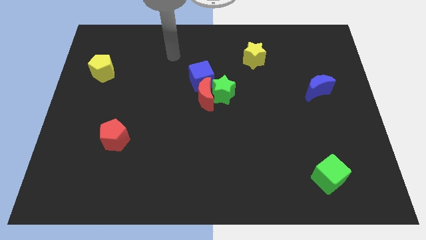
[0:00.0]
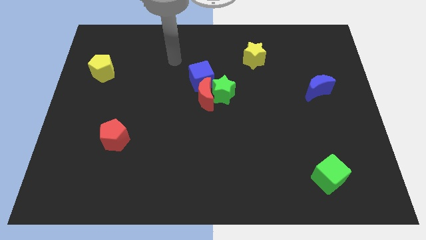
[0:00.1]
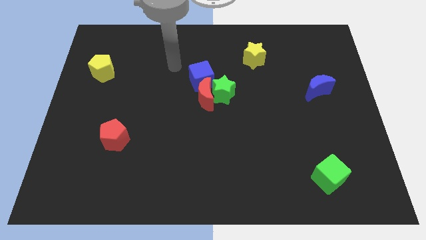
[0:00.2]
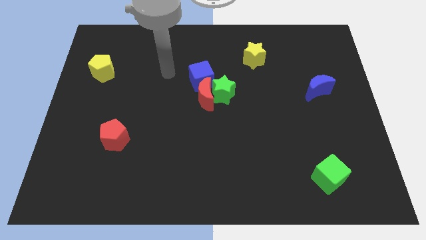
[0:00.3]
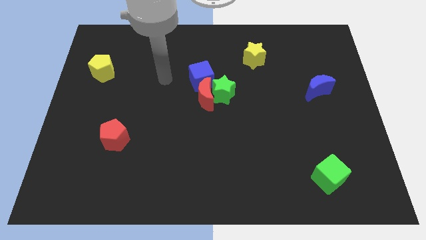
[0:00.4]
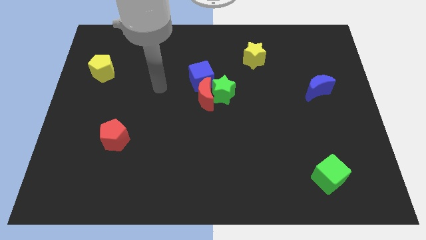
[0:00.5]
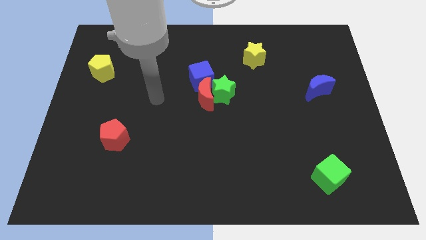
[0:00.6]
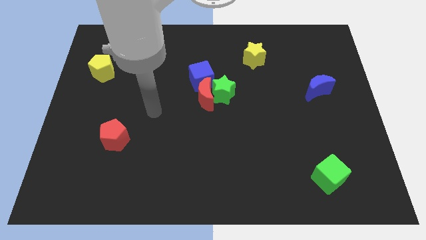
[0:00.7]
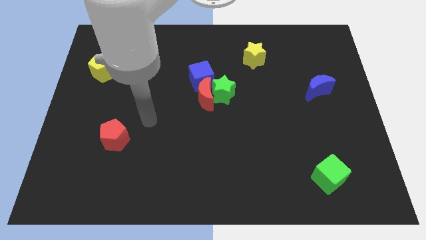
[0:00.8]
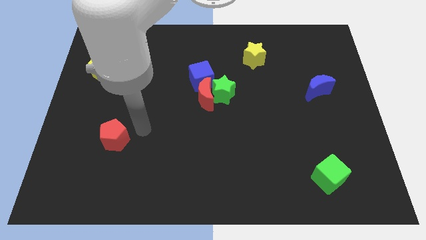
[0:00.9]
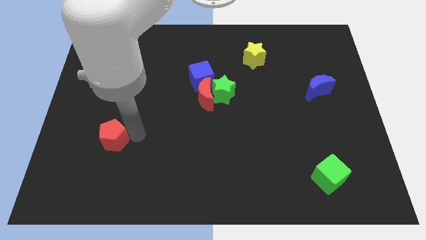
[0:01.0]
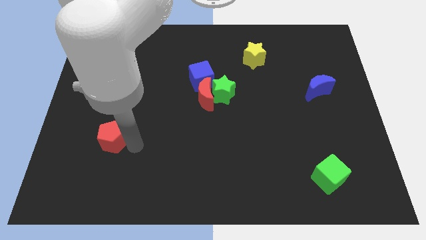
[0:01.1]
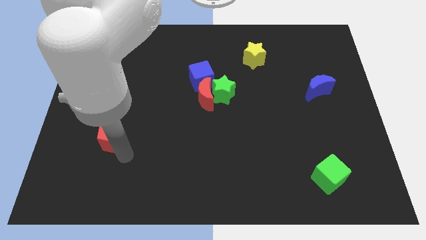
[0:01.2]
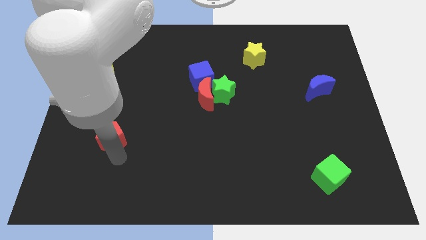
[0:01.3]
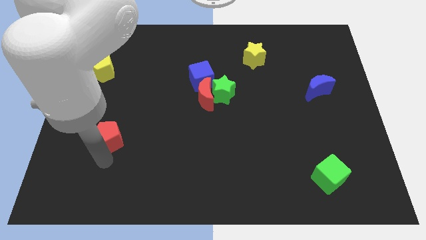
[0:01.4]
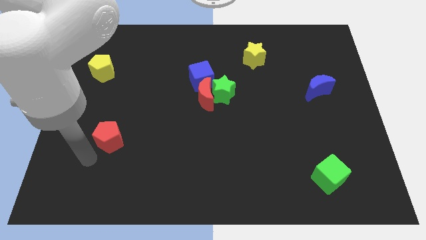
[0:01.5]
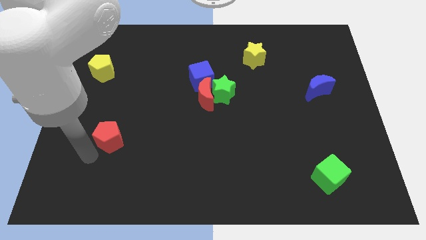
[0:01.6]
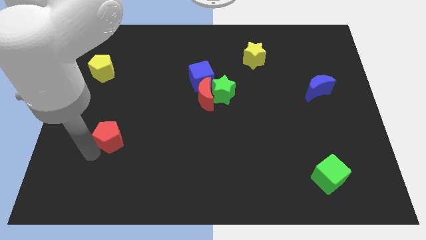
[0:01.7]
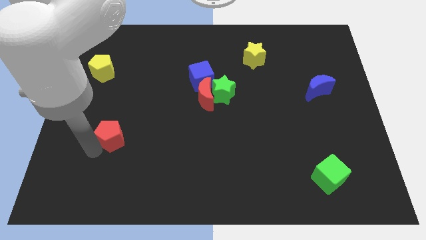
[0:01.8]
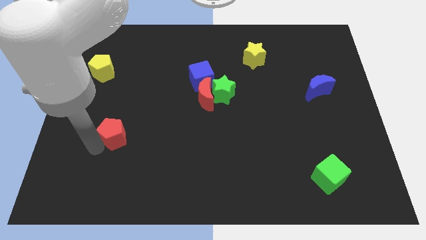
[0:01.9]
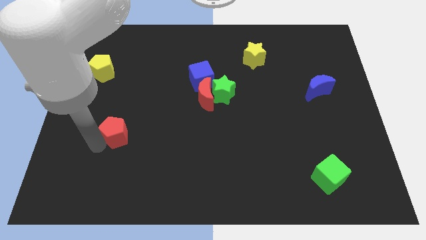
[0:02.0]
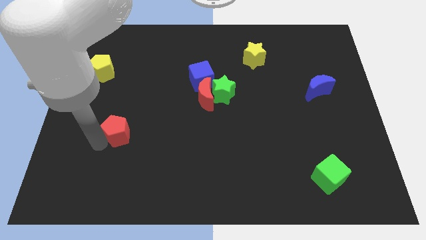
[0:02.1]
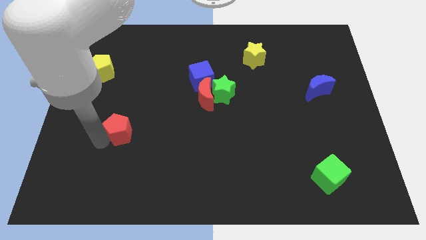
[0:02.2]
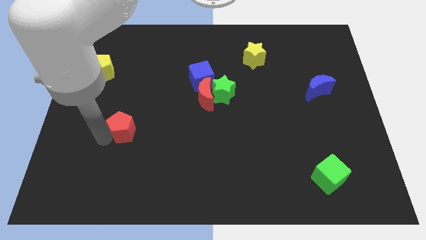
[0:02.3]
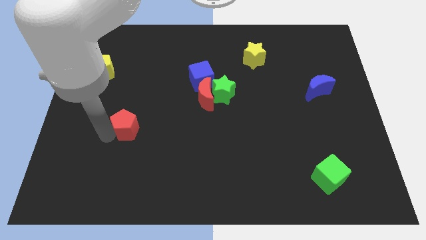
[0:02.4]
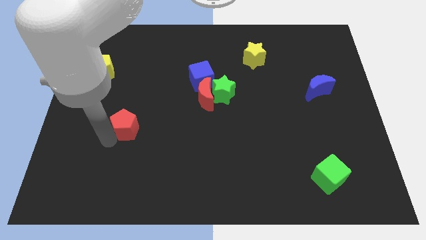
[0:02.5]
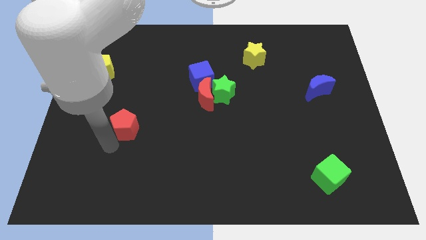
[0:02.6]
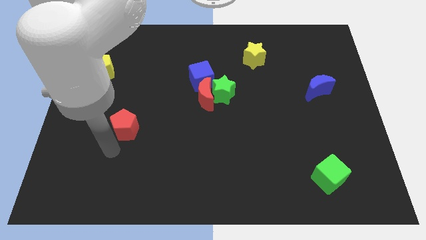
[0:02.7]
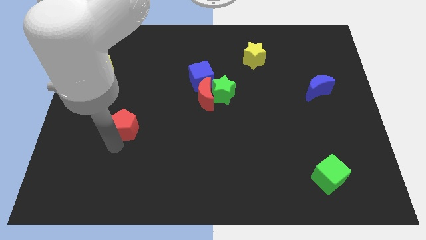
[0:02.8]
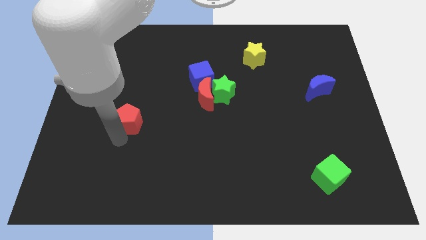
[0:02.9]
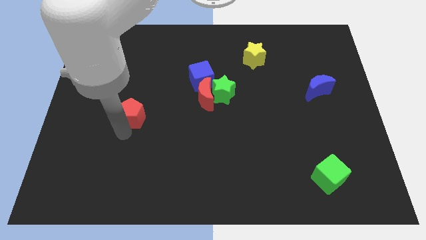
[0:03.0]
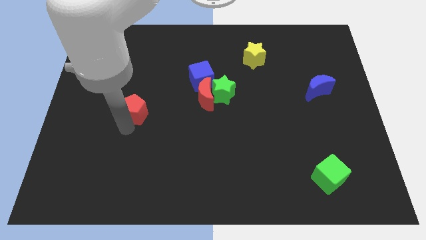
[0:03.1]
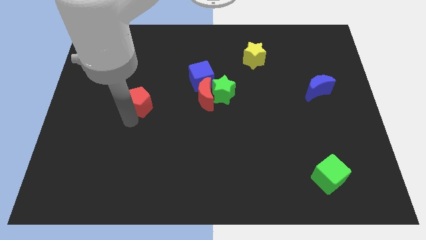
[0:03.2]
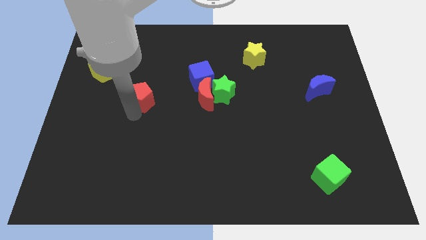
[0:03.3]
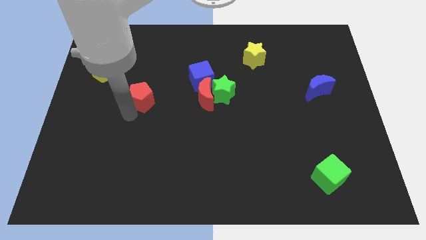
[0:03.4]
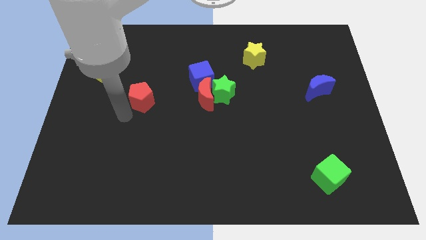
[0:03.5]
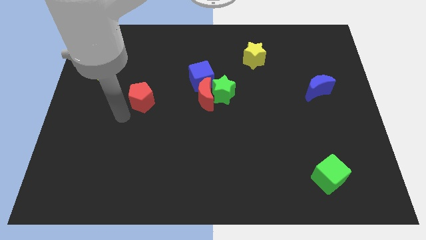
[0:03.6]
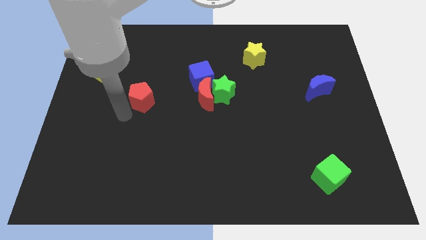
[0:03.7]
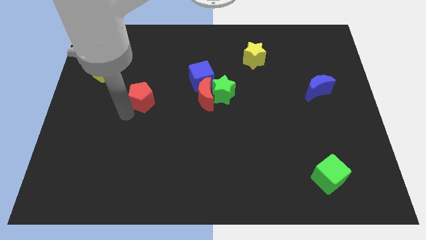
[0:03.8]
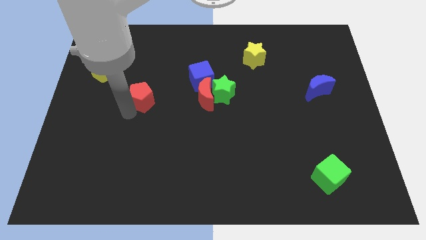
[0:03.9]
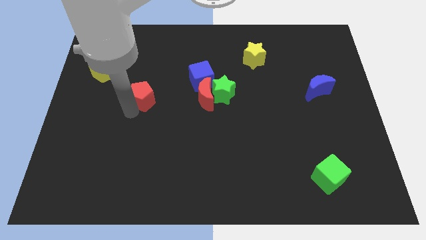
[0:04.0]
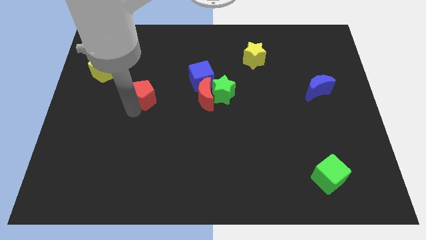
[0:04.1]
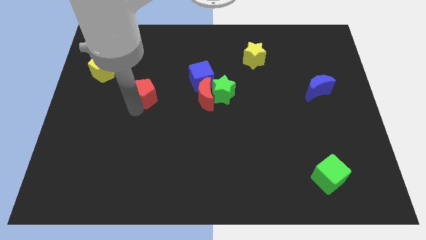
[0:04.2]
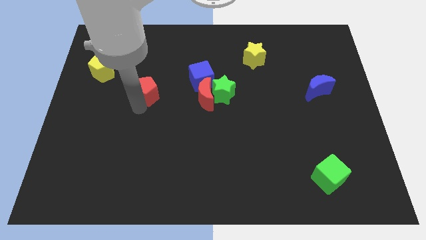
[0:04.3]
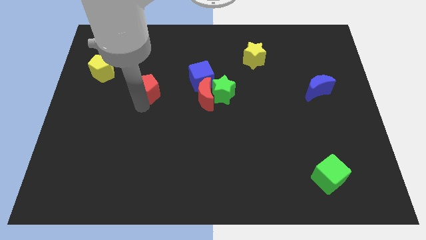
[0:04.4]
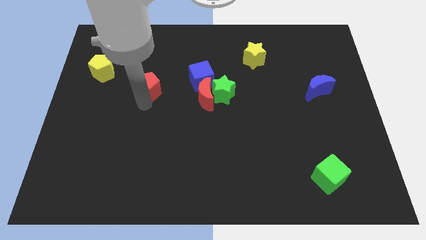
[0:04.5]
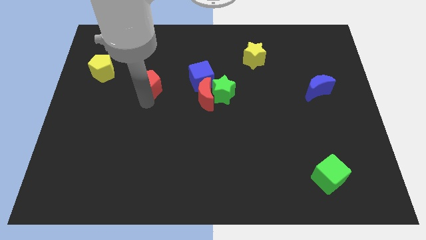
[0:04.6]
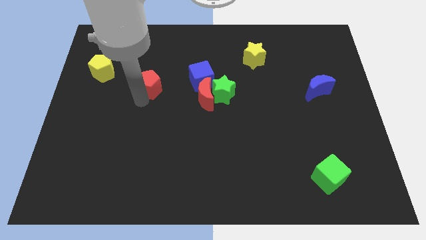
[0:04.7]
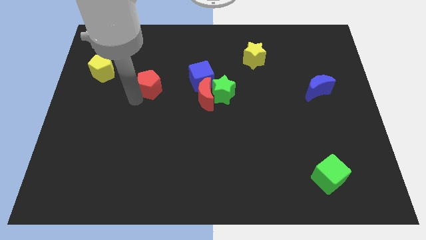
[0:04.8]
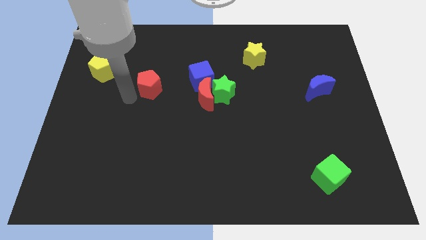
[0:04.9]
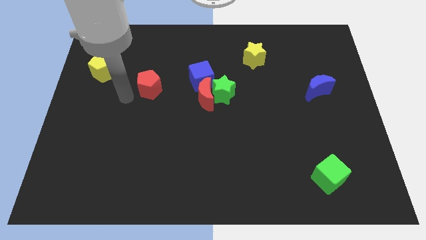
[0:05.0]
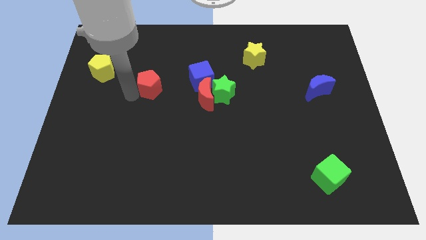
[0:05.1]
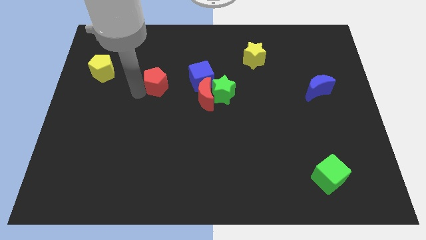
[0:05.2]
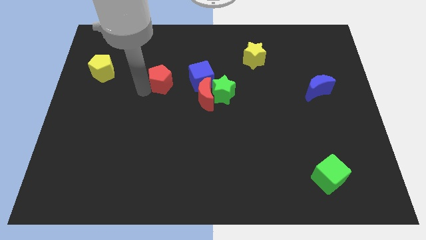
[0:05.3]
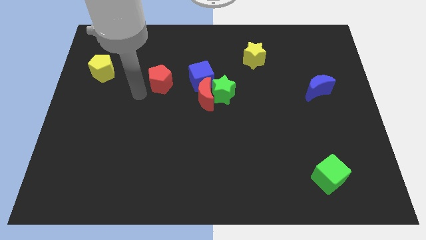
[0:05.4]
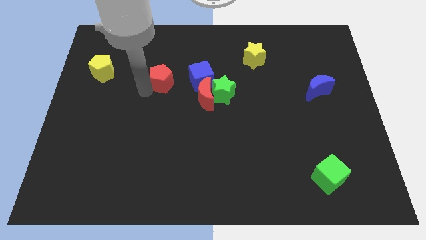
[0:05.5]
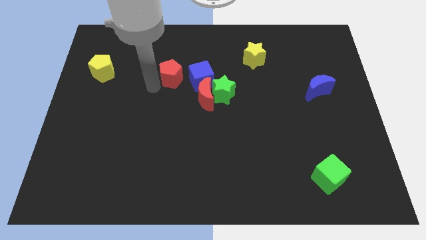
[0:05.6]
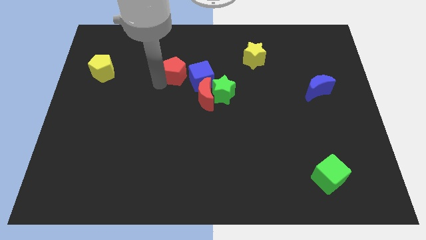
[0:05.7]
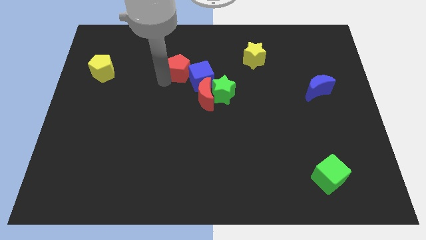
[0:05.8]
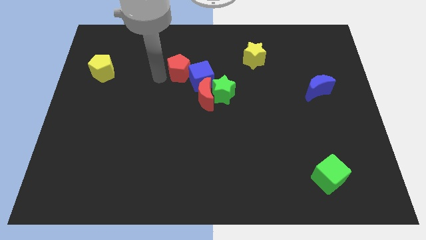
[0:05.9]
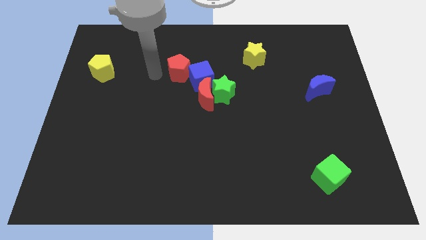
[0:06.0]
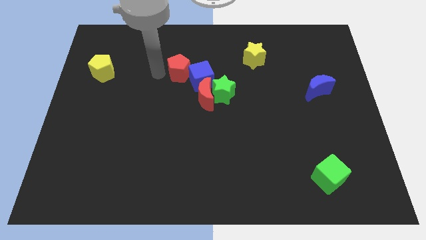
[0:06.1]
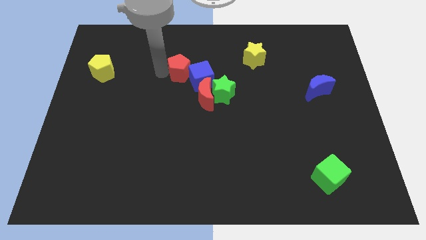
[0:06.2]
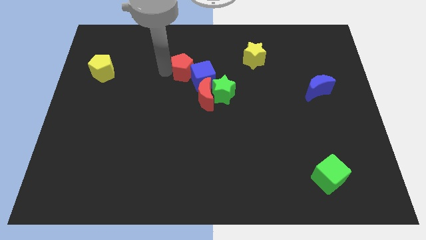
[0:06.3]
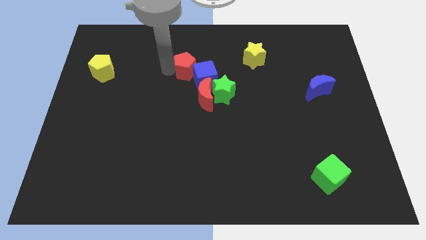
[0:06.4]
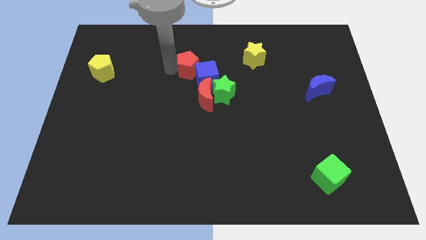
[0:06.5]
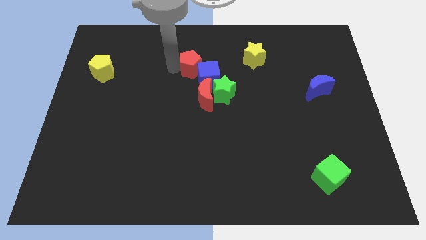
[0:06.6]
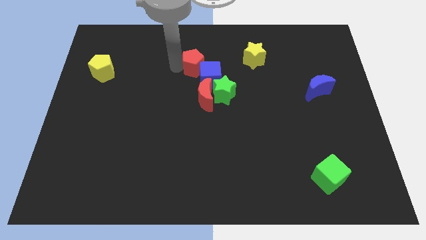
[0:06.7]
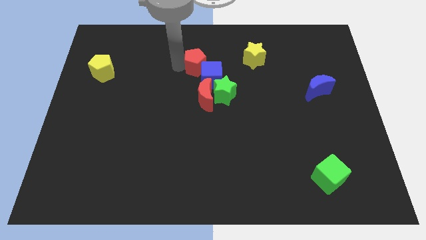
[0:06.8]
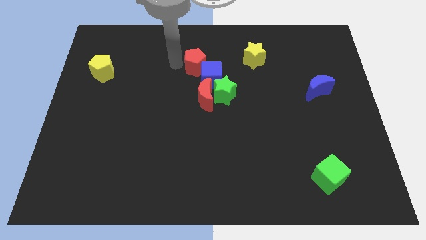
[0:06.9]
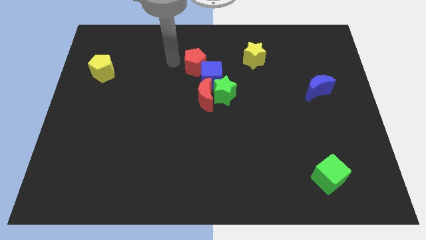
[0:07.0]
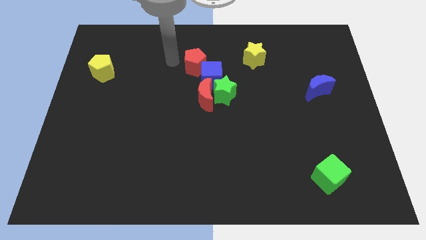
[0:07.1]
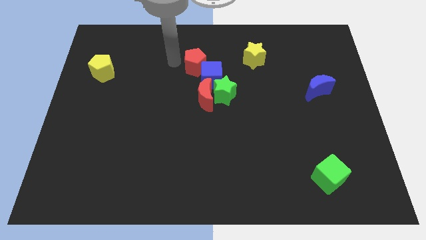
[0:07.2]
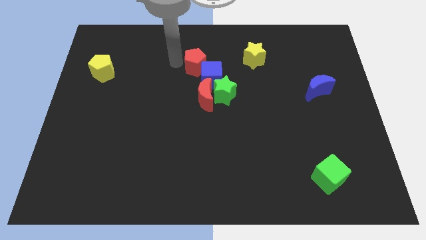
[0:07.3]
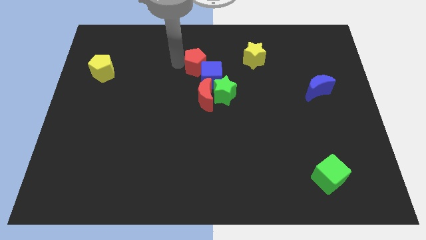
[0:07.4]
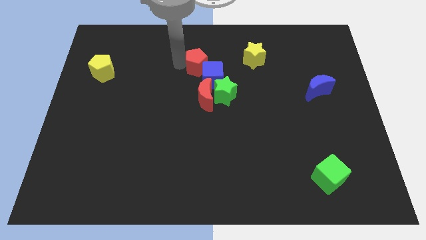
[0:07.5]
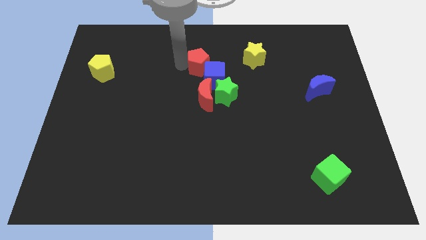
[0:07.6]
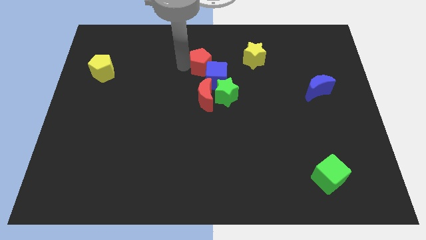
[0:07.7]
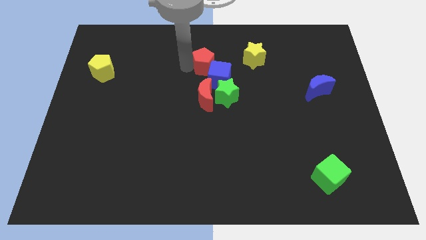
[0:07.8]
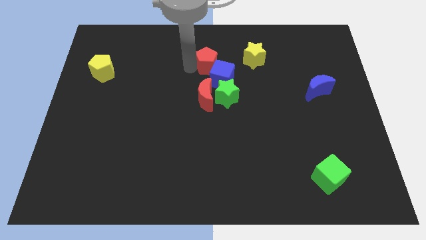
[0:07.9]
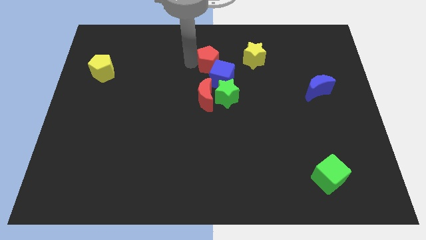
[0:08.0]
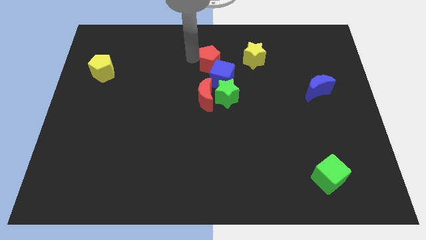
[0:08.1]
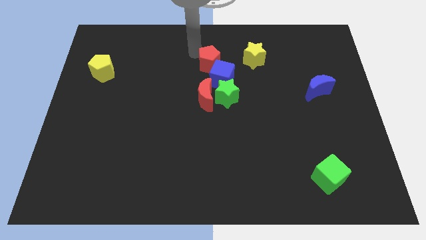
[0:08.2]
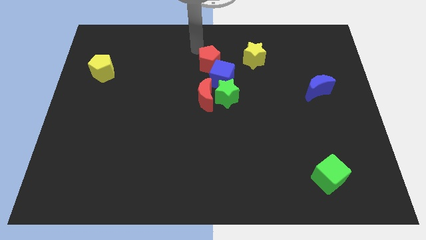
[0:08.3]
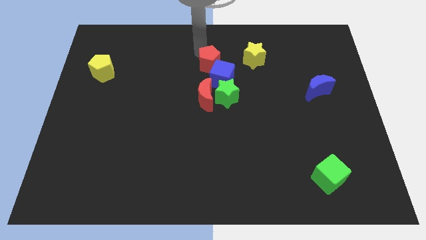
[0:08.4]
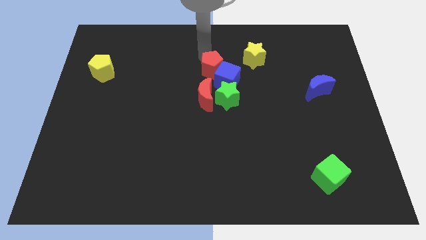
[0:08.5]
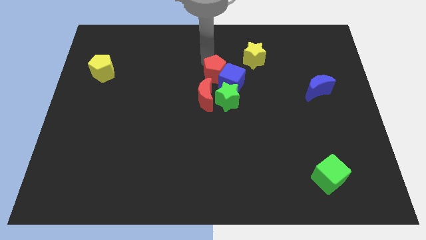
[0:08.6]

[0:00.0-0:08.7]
slide the red pentagon to the top right of the red moon
